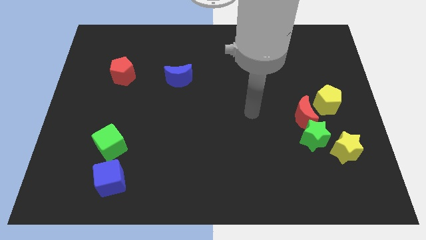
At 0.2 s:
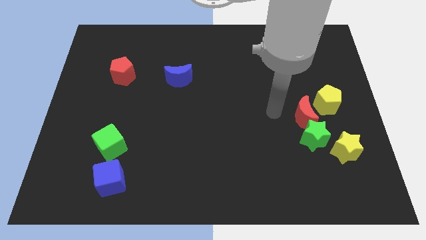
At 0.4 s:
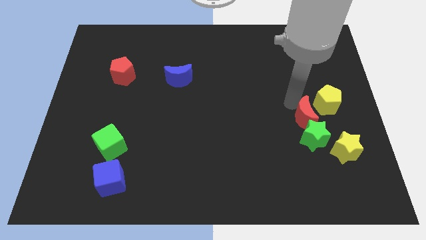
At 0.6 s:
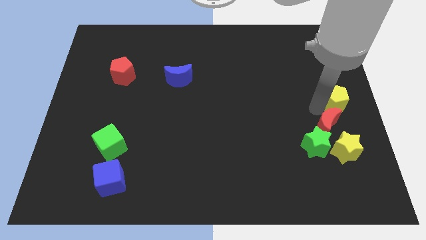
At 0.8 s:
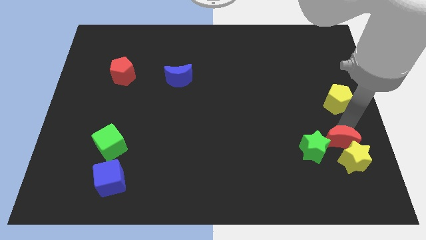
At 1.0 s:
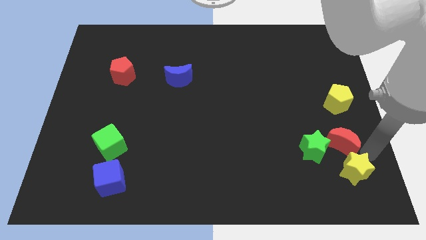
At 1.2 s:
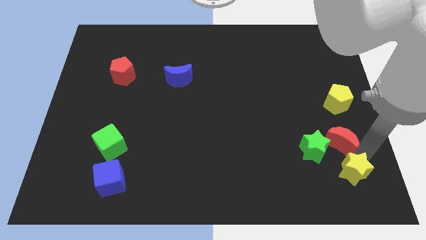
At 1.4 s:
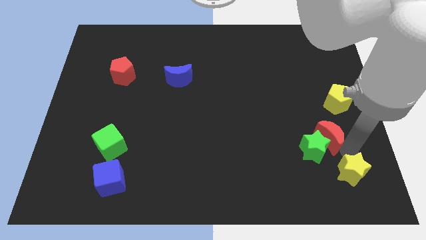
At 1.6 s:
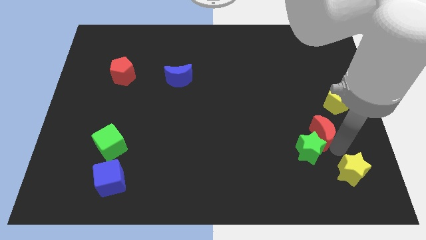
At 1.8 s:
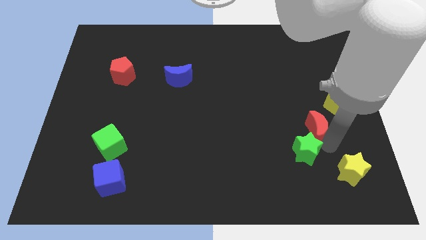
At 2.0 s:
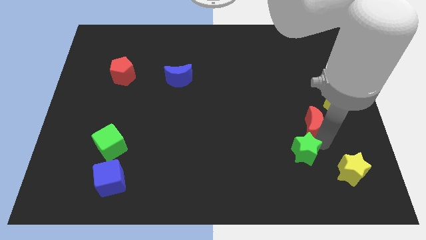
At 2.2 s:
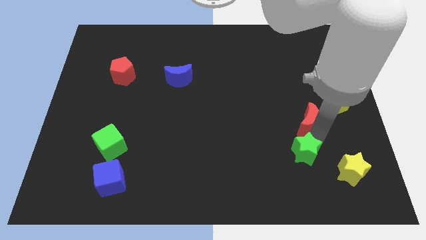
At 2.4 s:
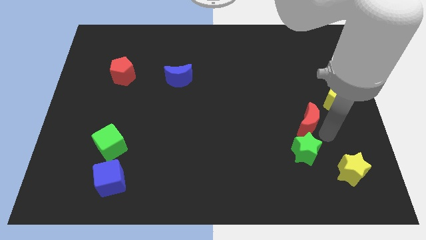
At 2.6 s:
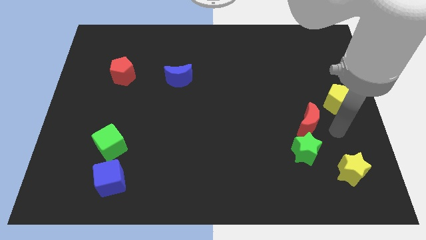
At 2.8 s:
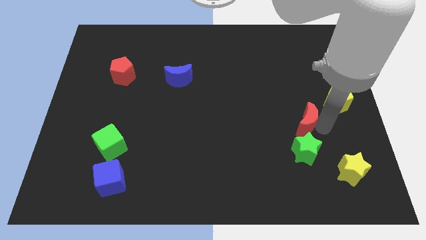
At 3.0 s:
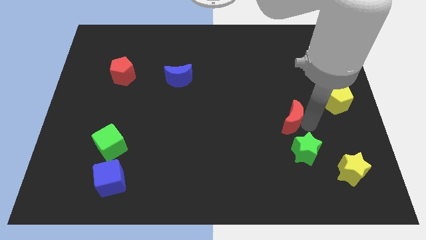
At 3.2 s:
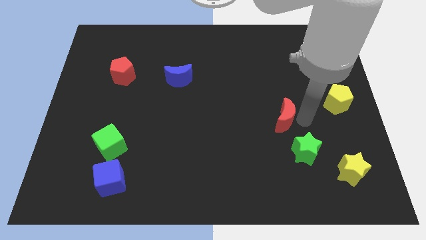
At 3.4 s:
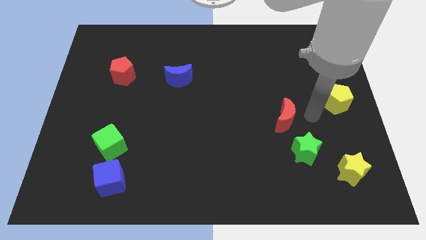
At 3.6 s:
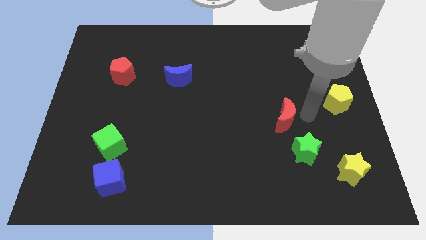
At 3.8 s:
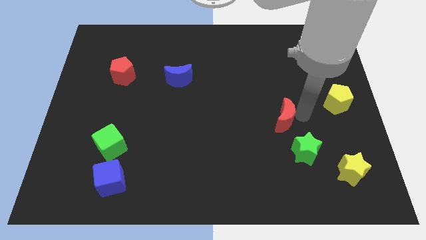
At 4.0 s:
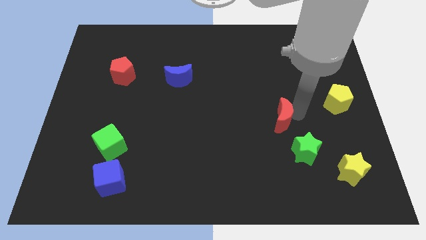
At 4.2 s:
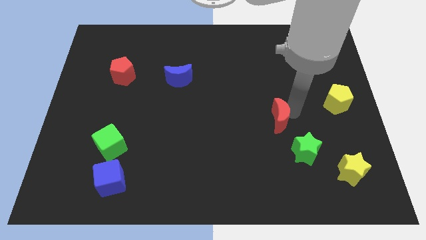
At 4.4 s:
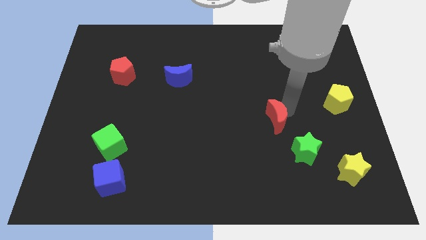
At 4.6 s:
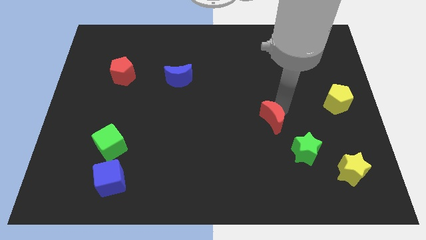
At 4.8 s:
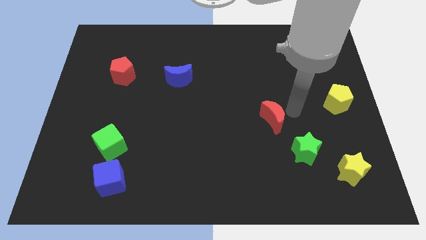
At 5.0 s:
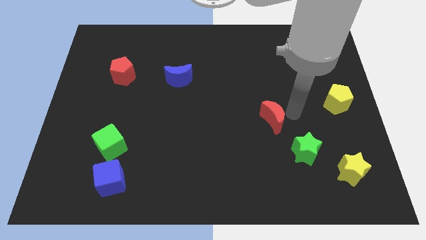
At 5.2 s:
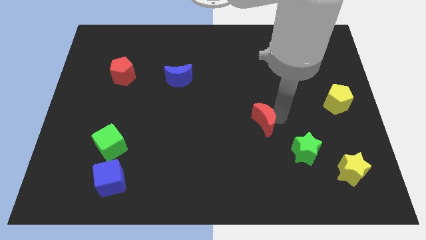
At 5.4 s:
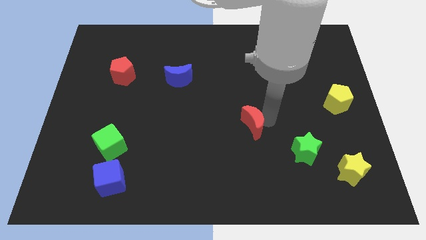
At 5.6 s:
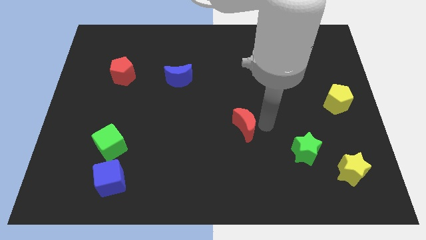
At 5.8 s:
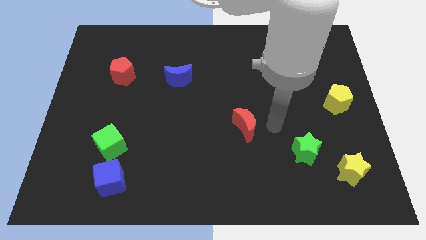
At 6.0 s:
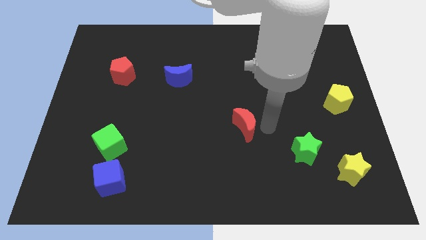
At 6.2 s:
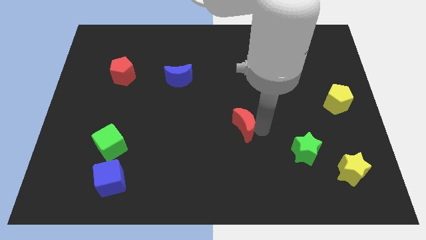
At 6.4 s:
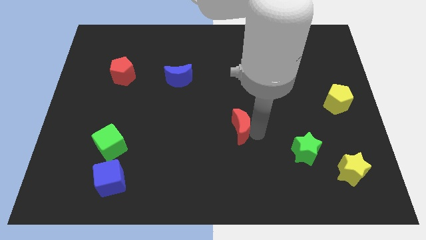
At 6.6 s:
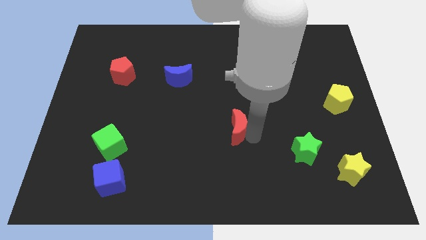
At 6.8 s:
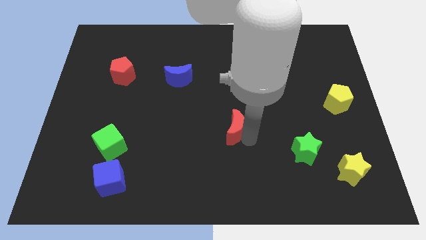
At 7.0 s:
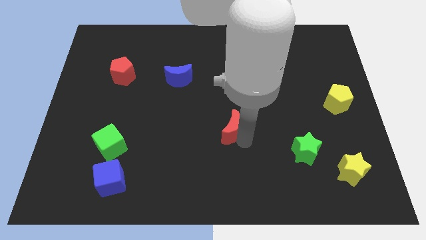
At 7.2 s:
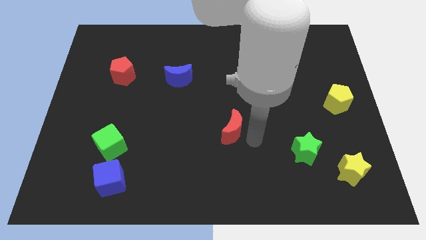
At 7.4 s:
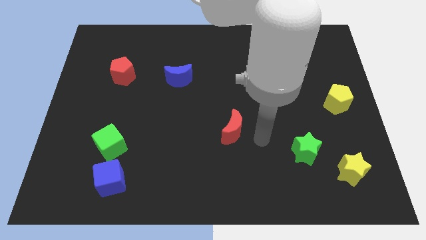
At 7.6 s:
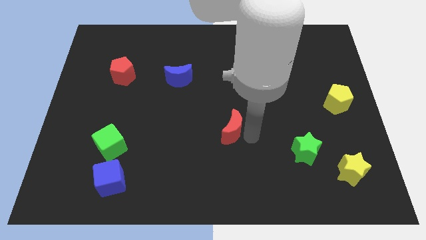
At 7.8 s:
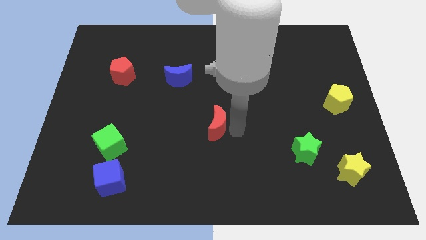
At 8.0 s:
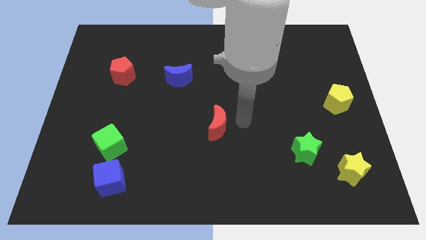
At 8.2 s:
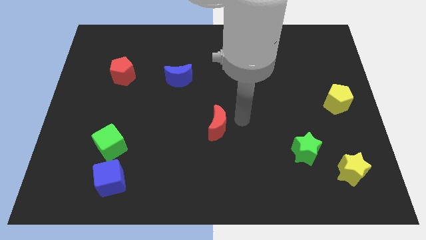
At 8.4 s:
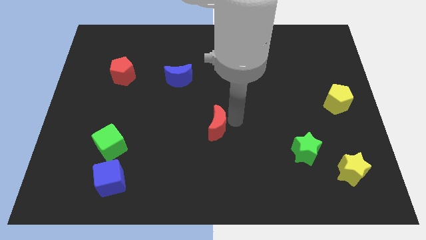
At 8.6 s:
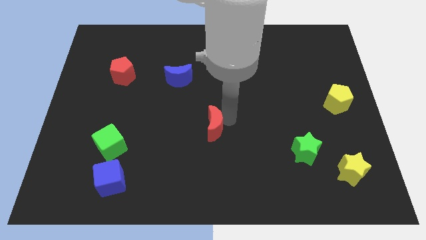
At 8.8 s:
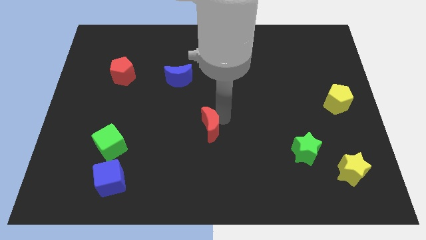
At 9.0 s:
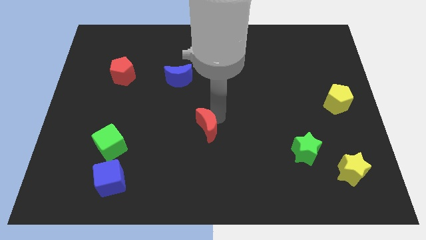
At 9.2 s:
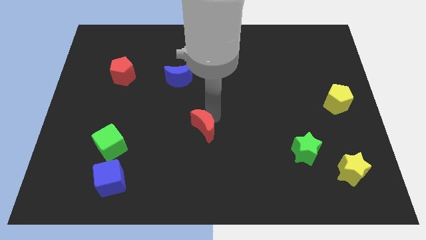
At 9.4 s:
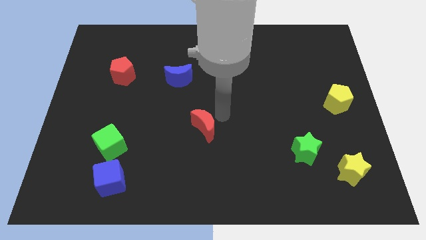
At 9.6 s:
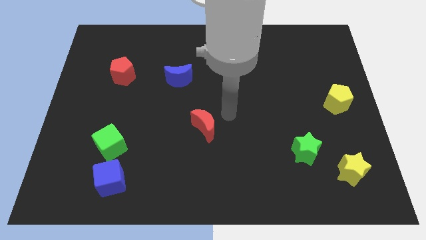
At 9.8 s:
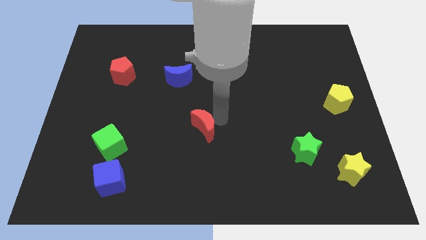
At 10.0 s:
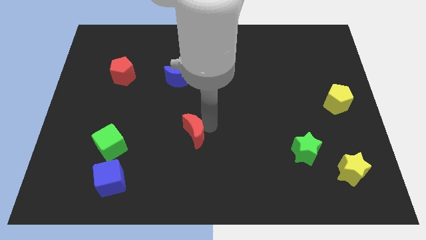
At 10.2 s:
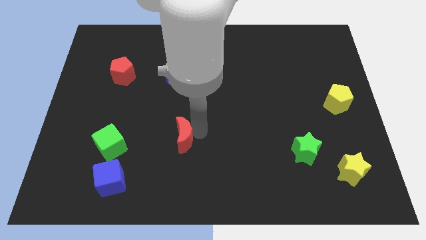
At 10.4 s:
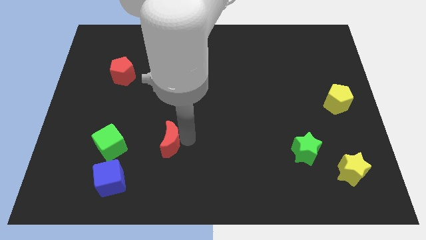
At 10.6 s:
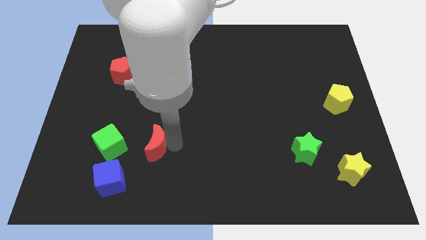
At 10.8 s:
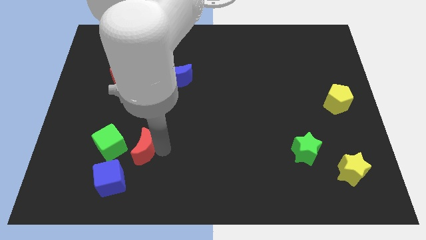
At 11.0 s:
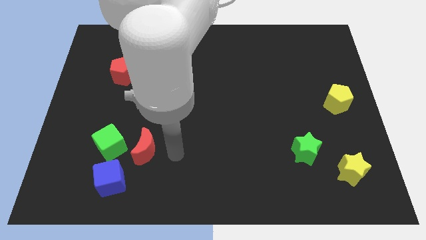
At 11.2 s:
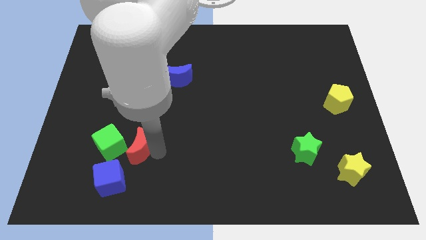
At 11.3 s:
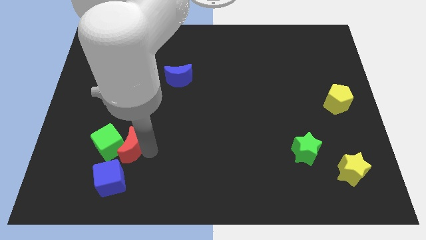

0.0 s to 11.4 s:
move the red moon to the green cube

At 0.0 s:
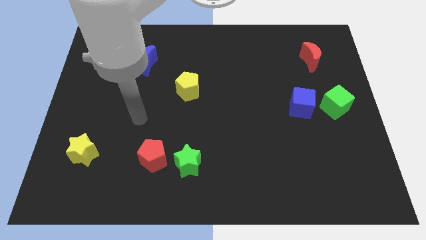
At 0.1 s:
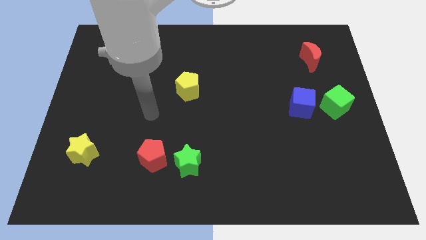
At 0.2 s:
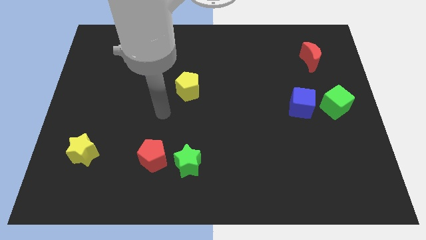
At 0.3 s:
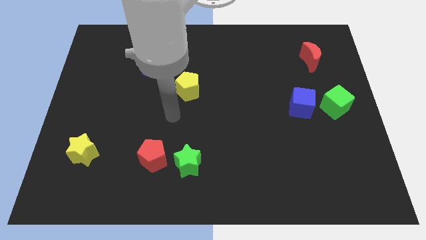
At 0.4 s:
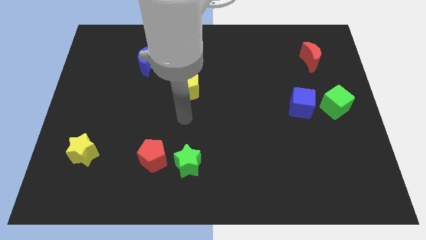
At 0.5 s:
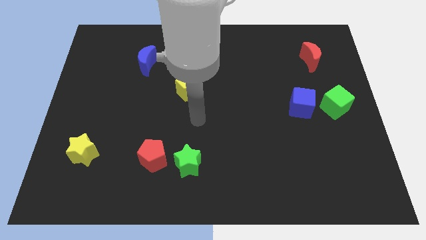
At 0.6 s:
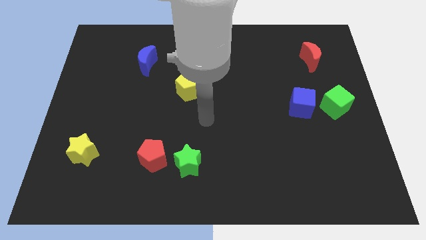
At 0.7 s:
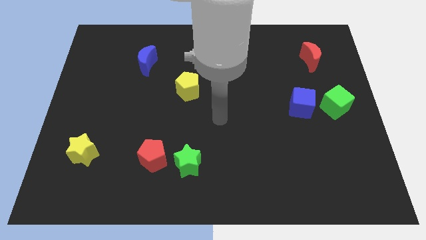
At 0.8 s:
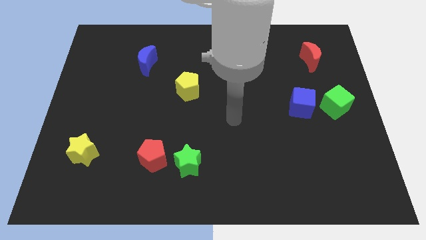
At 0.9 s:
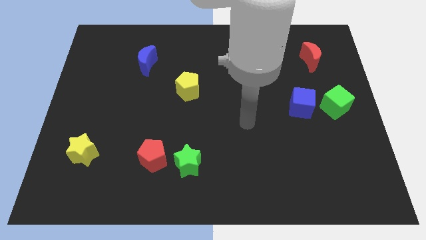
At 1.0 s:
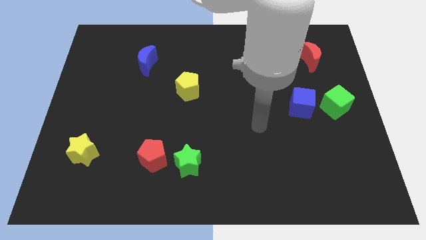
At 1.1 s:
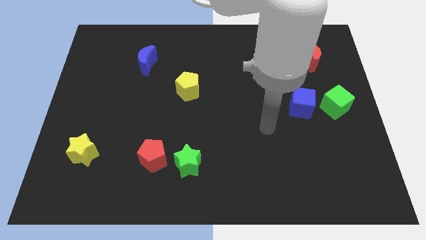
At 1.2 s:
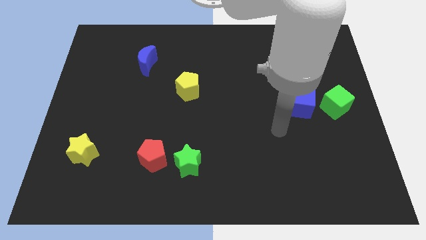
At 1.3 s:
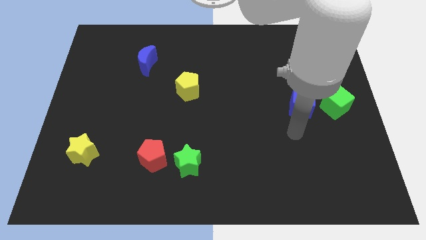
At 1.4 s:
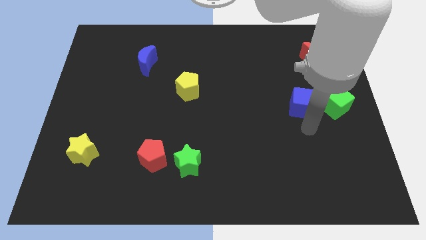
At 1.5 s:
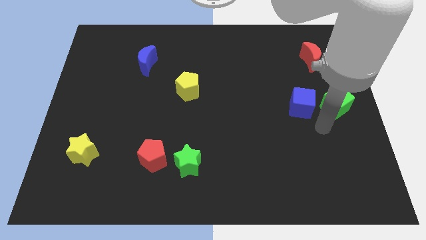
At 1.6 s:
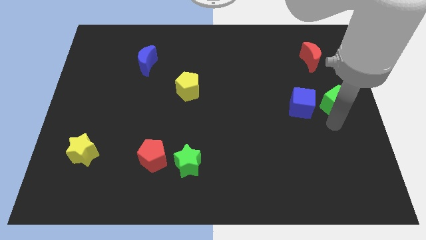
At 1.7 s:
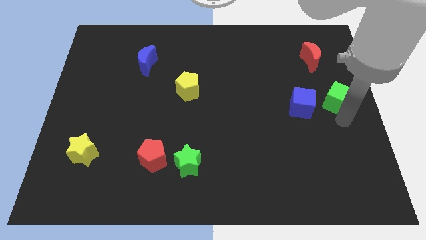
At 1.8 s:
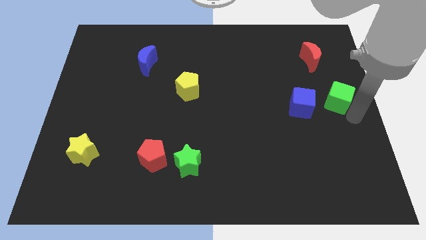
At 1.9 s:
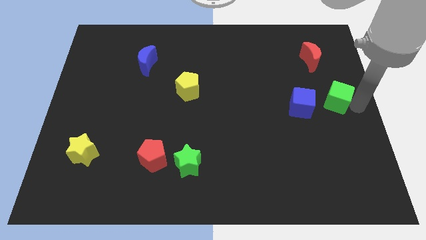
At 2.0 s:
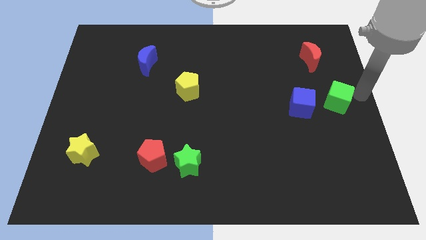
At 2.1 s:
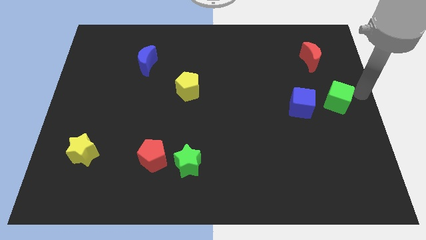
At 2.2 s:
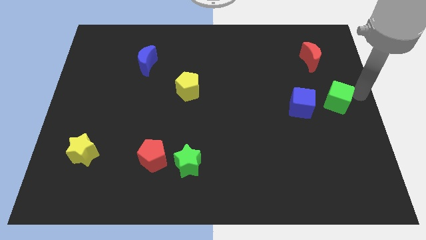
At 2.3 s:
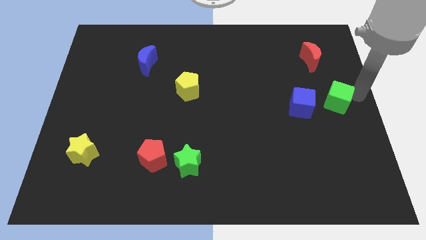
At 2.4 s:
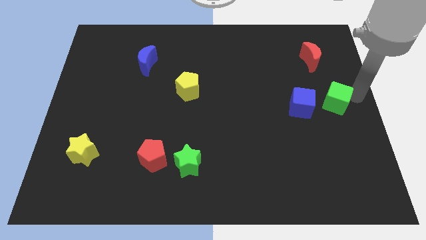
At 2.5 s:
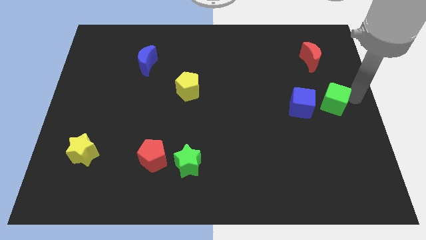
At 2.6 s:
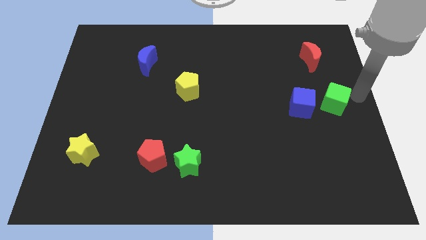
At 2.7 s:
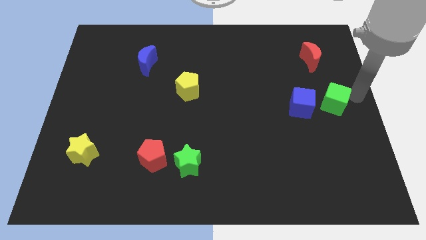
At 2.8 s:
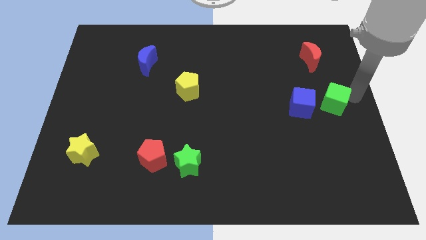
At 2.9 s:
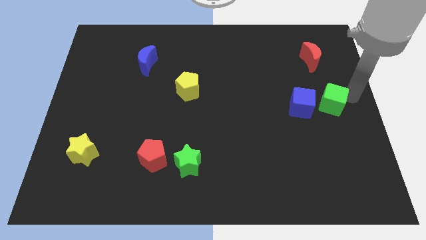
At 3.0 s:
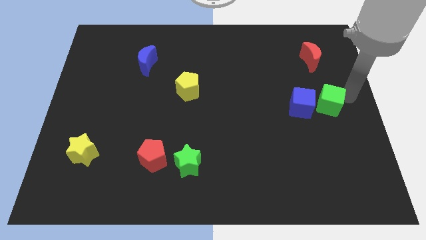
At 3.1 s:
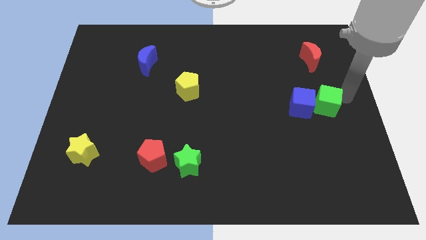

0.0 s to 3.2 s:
put the green cube next to the blue cube
